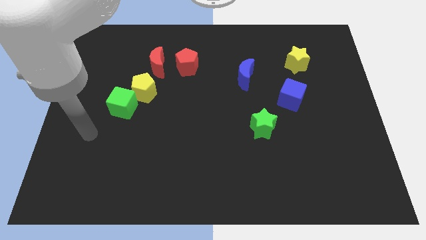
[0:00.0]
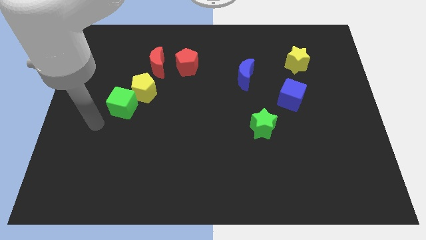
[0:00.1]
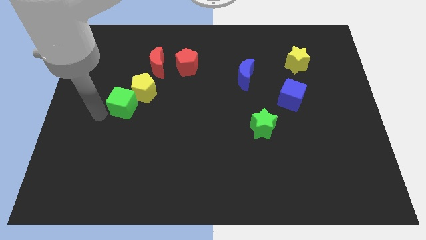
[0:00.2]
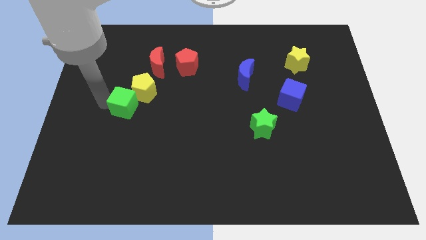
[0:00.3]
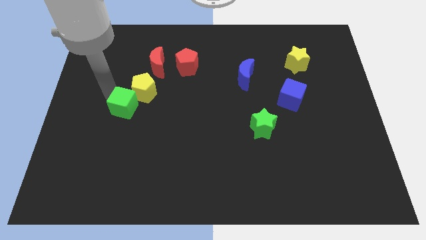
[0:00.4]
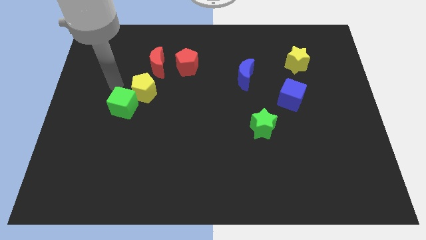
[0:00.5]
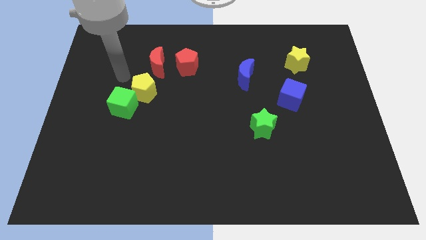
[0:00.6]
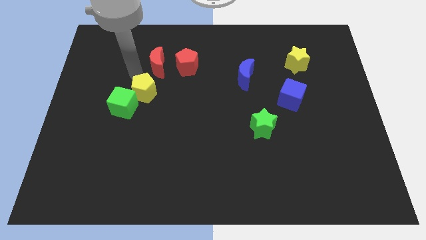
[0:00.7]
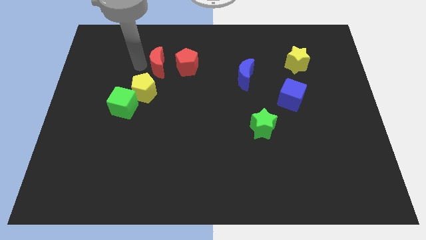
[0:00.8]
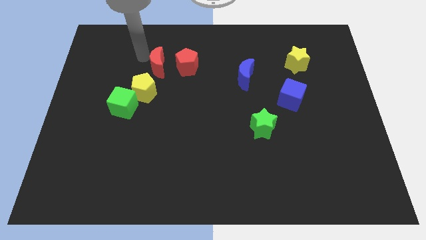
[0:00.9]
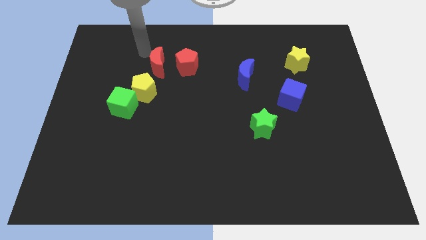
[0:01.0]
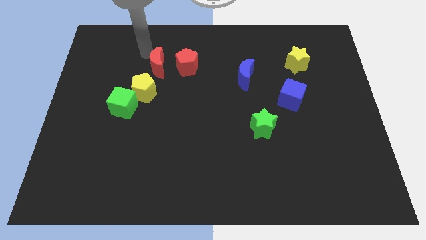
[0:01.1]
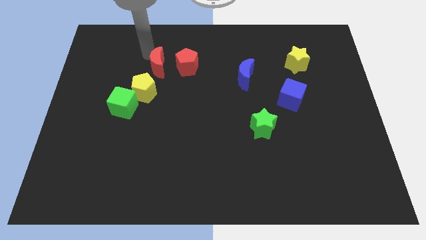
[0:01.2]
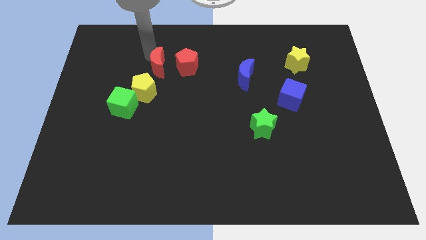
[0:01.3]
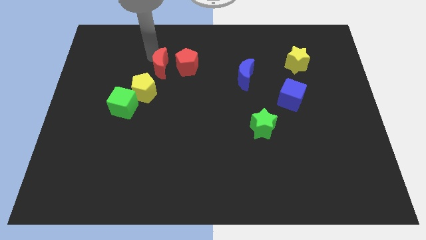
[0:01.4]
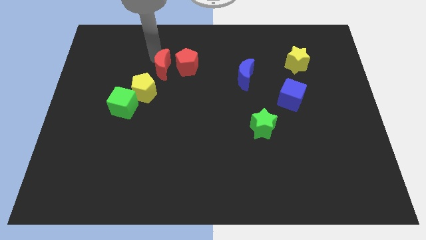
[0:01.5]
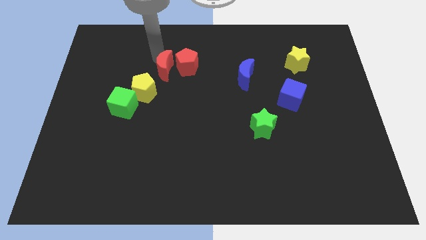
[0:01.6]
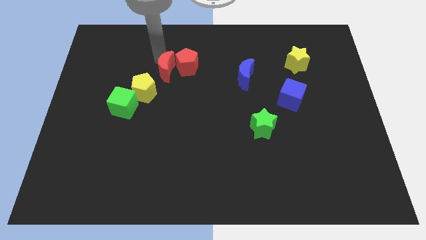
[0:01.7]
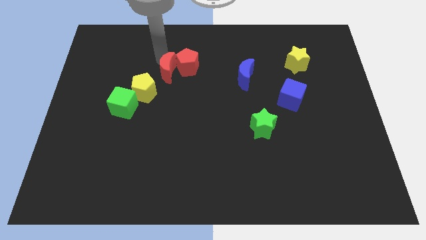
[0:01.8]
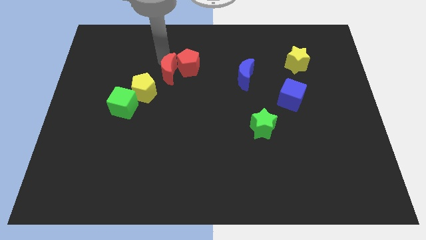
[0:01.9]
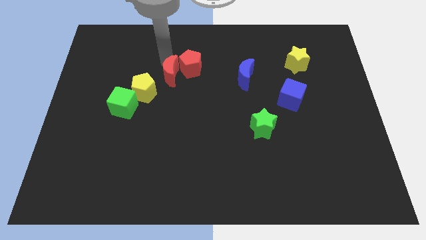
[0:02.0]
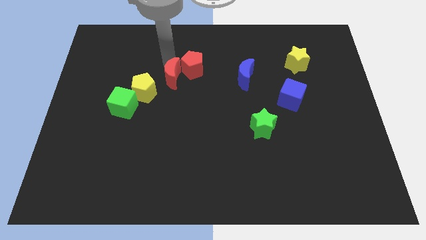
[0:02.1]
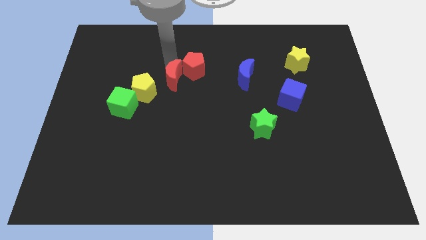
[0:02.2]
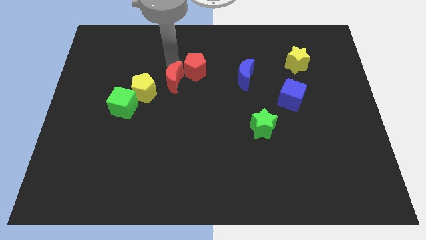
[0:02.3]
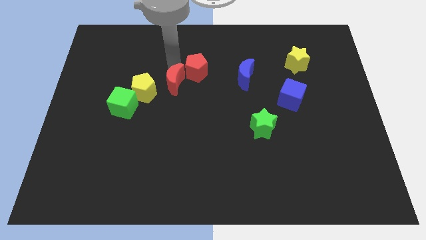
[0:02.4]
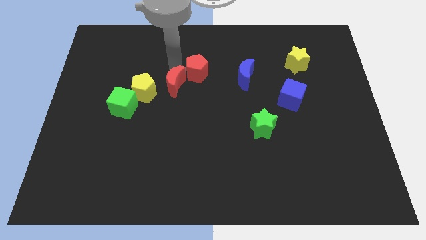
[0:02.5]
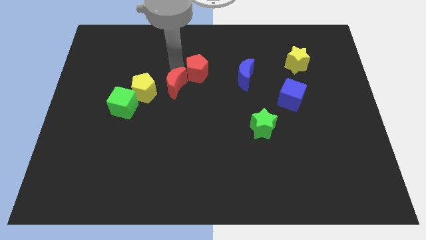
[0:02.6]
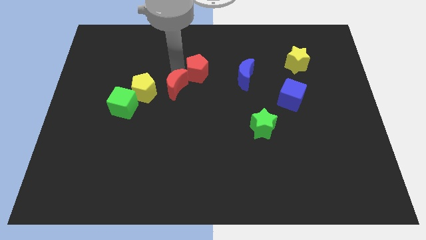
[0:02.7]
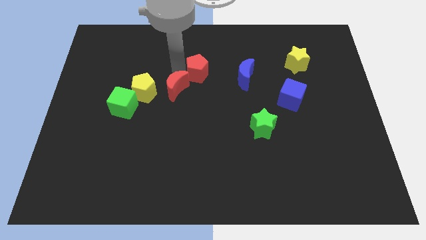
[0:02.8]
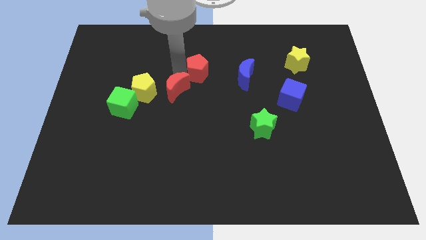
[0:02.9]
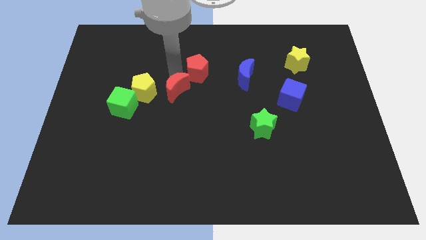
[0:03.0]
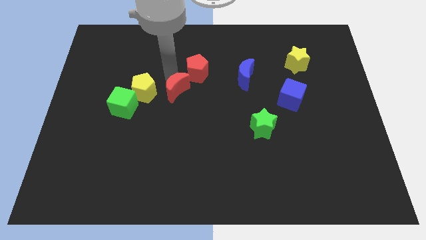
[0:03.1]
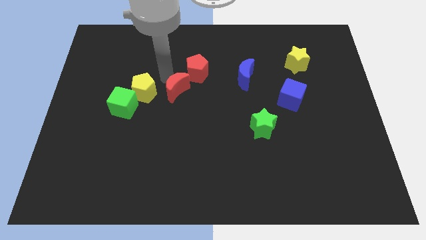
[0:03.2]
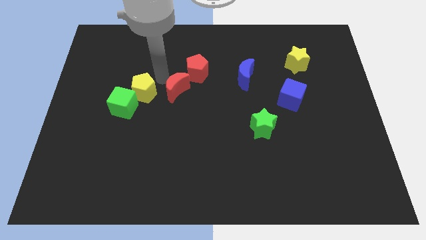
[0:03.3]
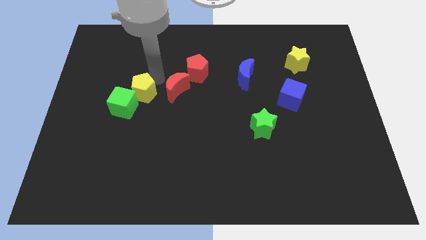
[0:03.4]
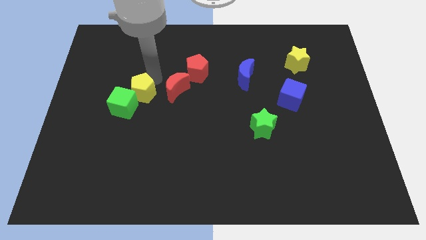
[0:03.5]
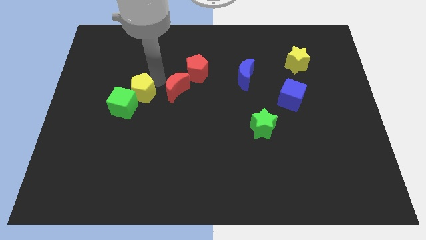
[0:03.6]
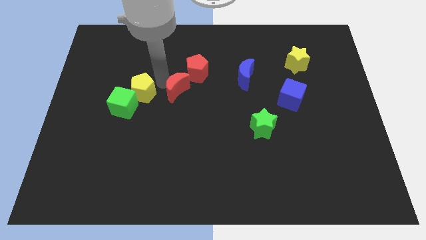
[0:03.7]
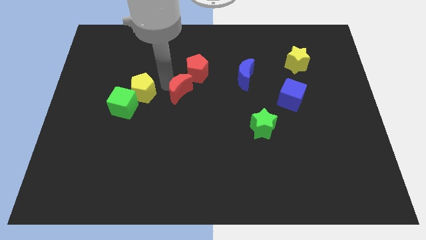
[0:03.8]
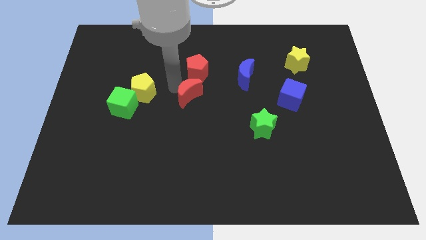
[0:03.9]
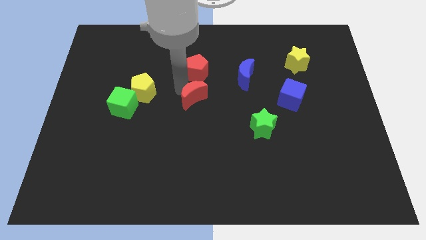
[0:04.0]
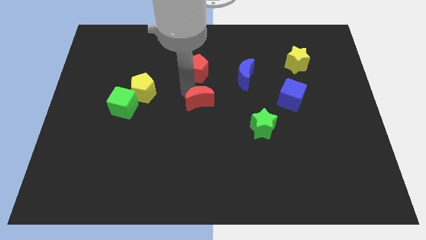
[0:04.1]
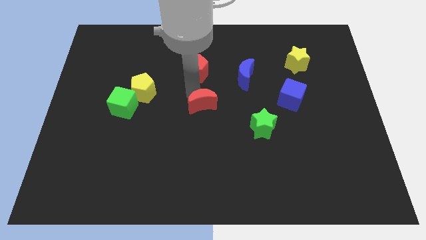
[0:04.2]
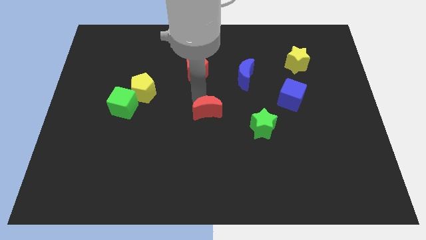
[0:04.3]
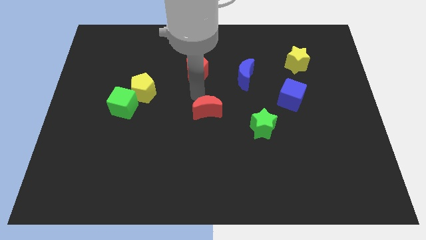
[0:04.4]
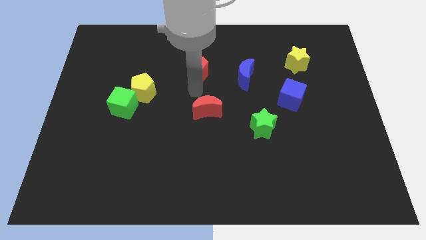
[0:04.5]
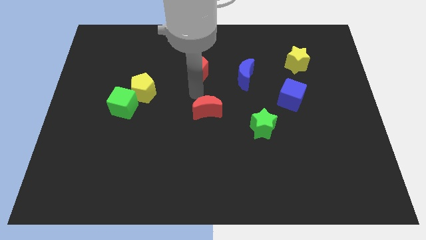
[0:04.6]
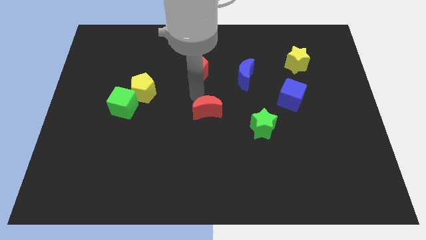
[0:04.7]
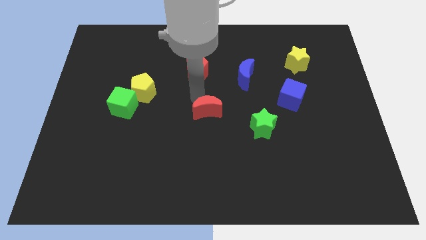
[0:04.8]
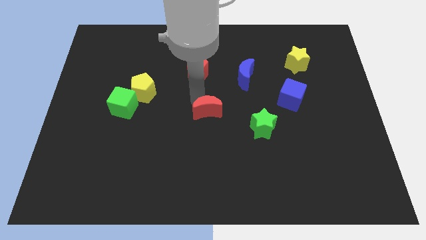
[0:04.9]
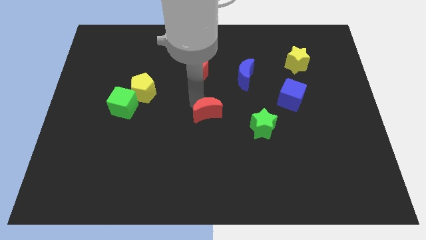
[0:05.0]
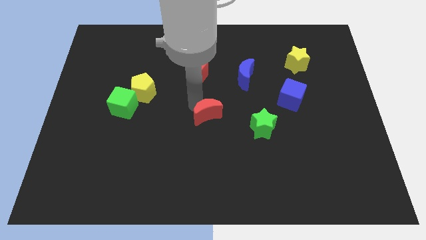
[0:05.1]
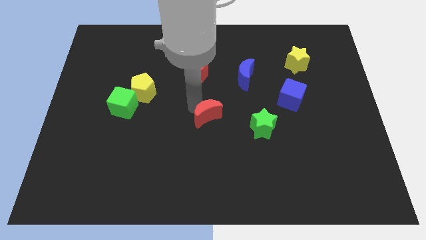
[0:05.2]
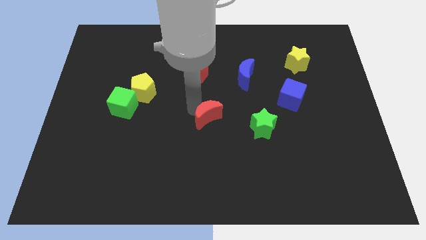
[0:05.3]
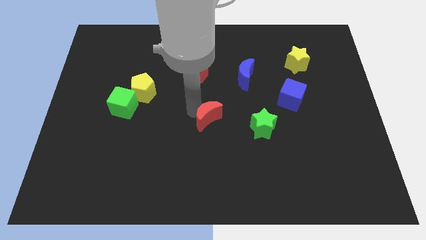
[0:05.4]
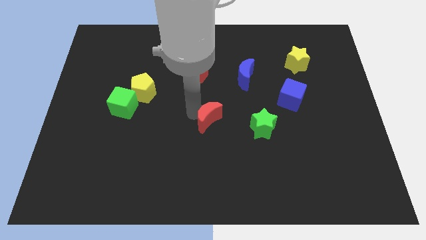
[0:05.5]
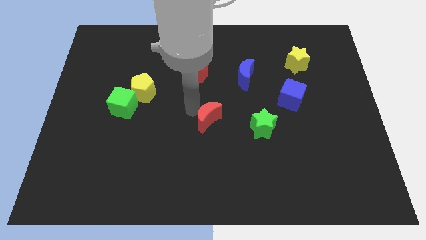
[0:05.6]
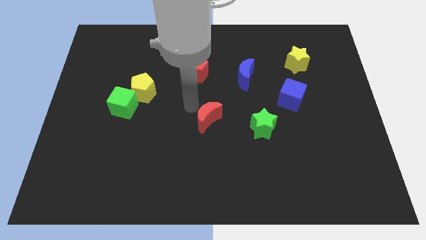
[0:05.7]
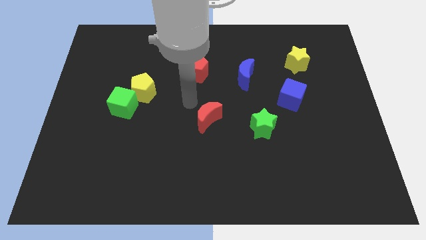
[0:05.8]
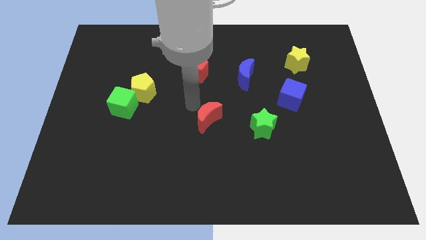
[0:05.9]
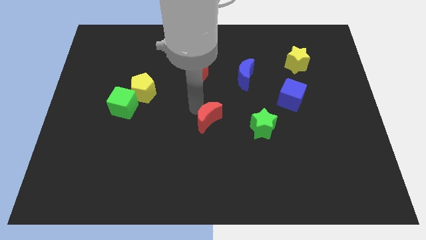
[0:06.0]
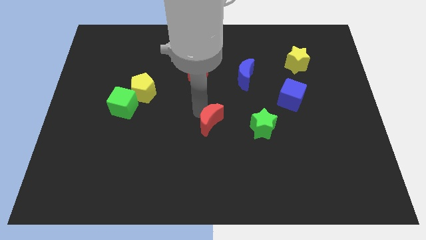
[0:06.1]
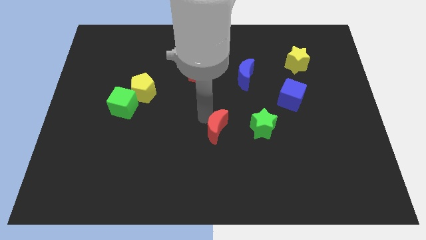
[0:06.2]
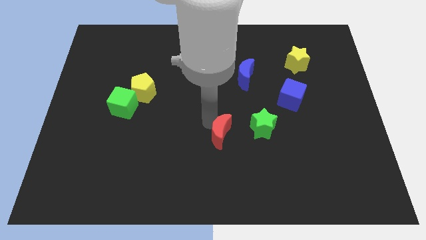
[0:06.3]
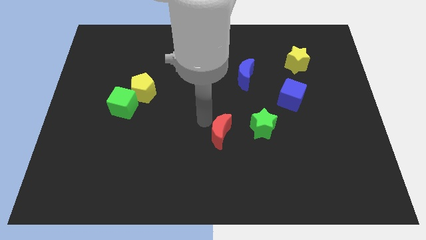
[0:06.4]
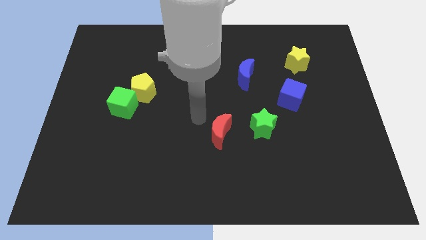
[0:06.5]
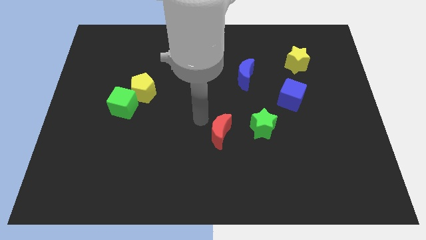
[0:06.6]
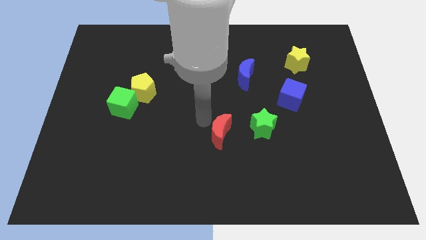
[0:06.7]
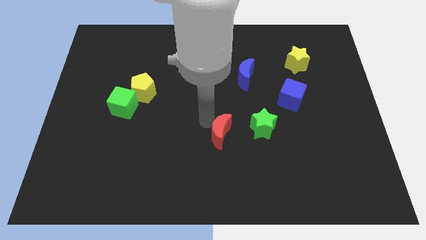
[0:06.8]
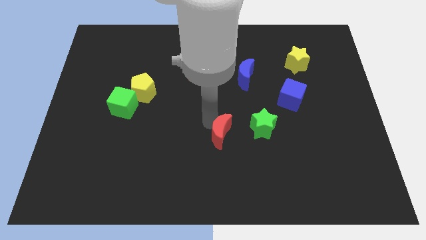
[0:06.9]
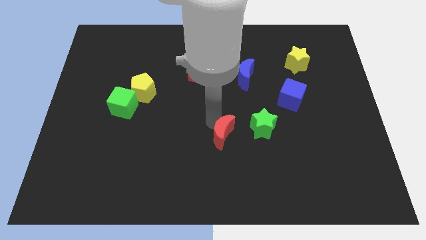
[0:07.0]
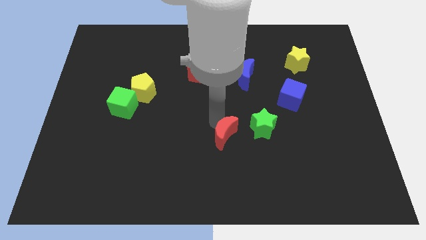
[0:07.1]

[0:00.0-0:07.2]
push the red moon to the bottom left side of the green star
